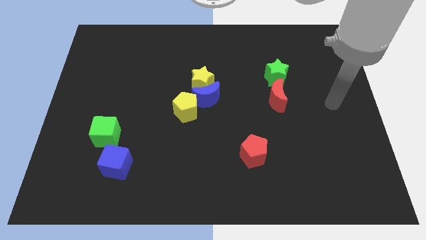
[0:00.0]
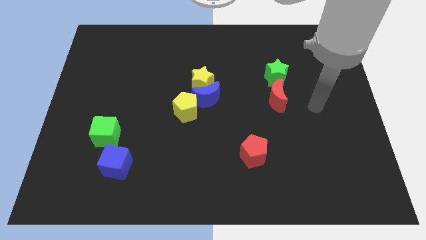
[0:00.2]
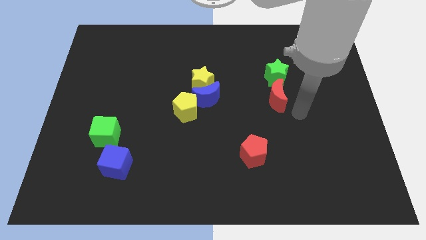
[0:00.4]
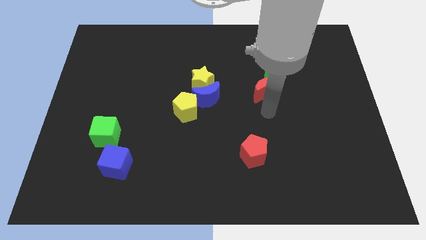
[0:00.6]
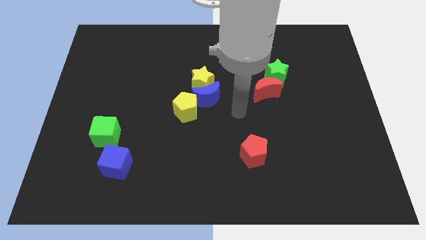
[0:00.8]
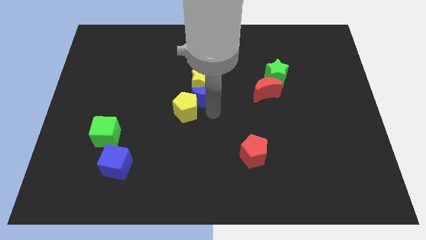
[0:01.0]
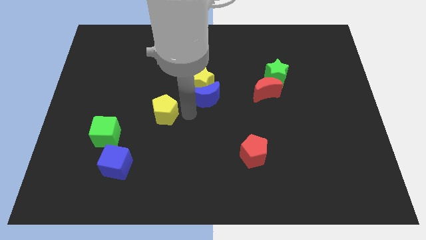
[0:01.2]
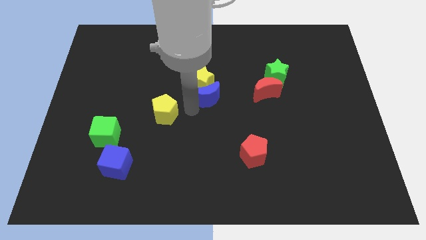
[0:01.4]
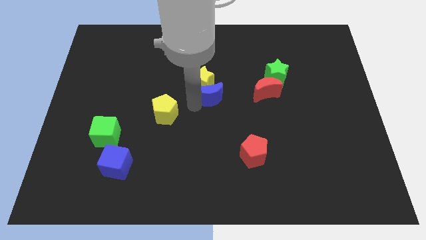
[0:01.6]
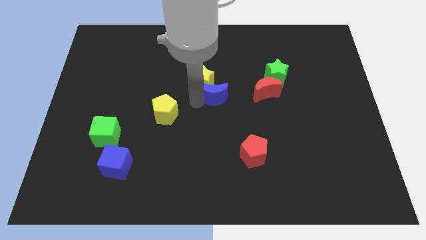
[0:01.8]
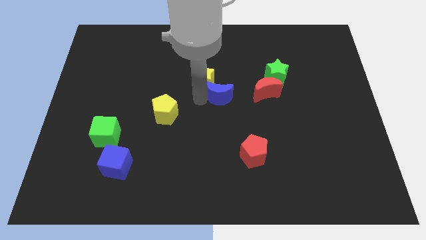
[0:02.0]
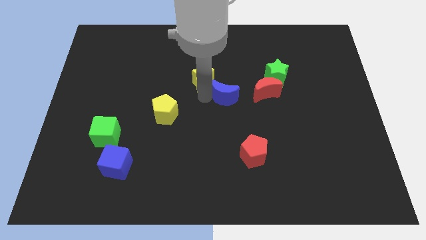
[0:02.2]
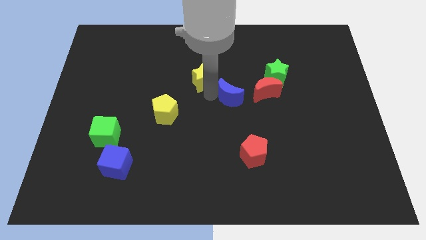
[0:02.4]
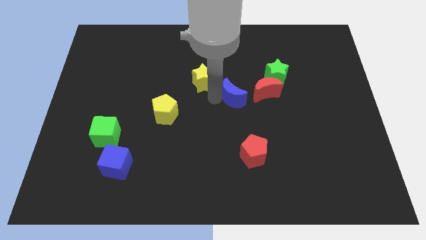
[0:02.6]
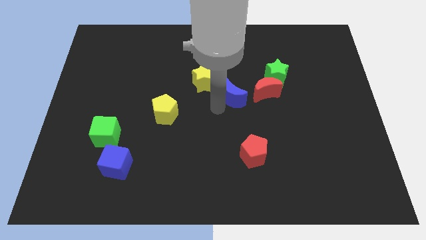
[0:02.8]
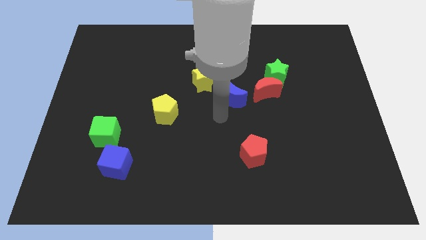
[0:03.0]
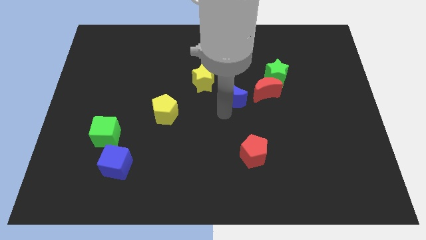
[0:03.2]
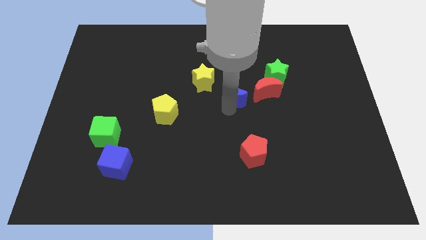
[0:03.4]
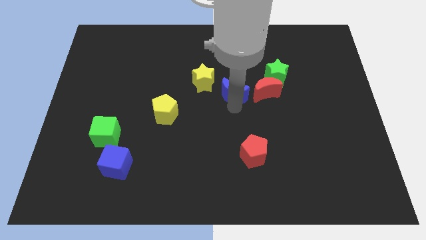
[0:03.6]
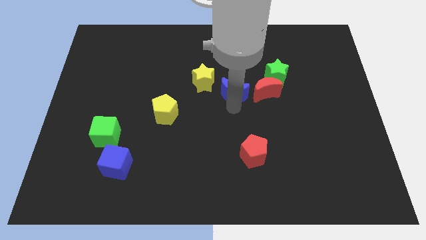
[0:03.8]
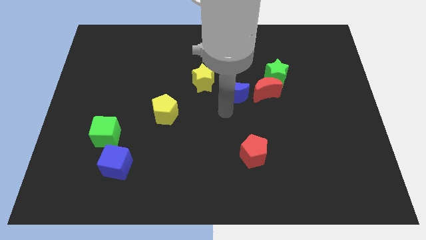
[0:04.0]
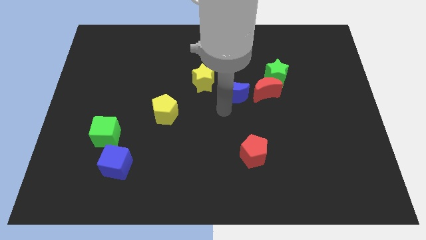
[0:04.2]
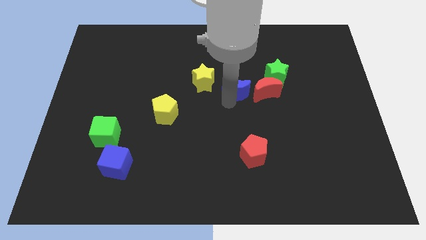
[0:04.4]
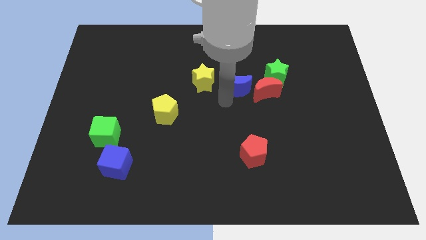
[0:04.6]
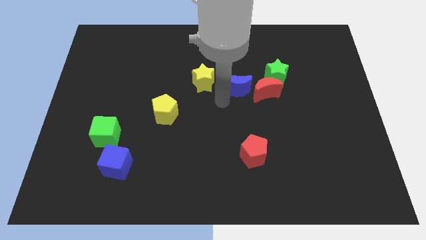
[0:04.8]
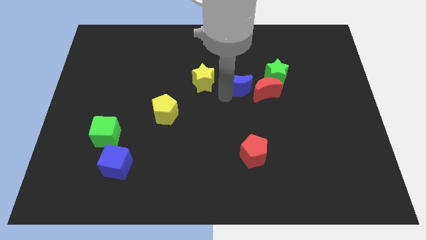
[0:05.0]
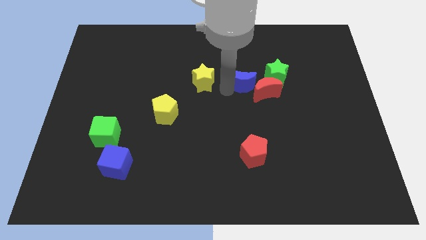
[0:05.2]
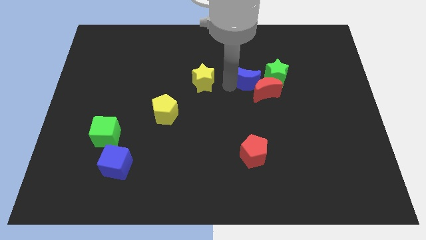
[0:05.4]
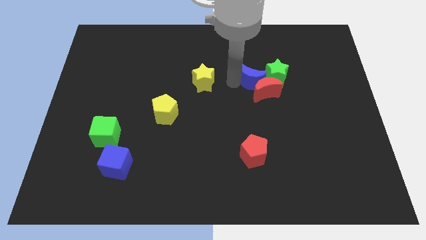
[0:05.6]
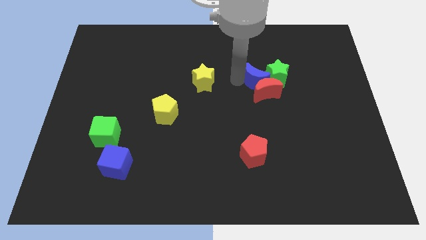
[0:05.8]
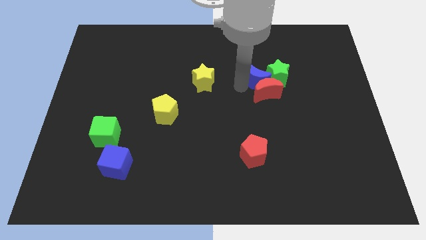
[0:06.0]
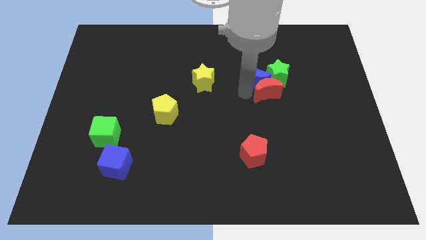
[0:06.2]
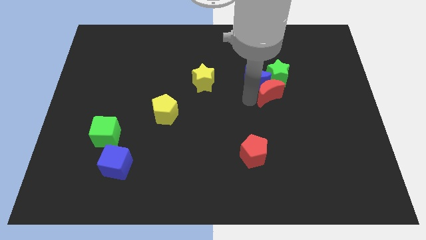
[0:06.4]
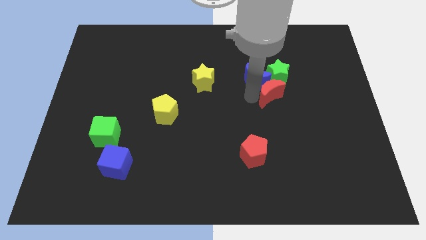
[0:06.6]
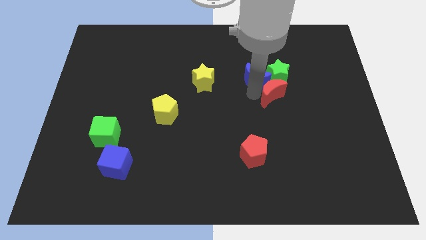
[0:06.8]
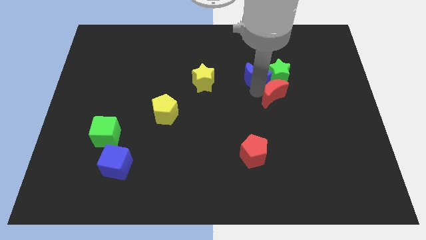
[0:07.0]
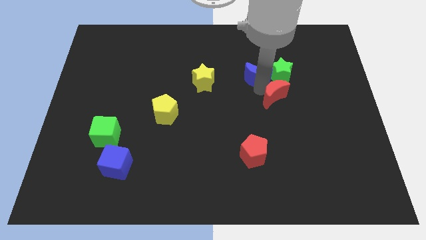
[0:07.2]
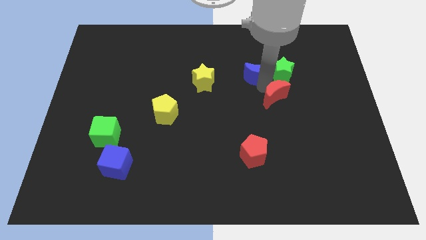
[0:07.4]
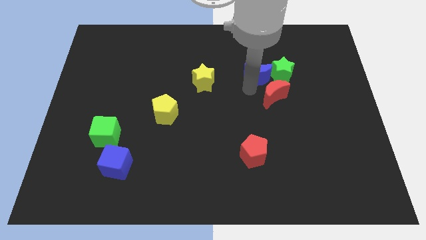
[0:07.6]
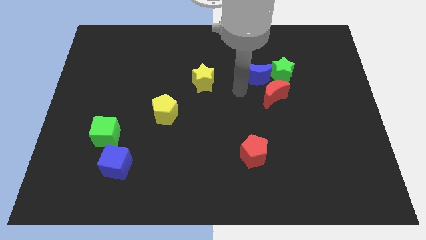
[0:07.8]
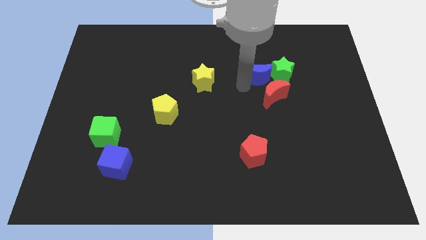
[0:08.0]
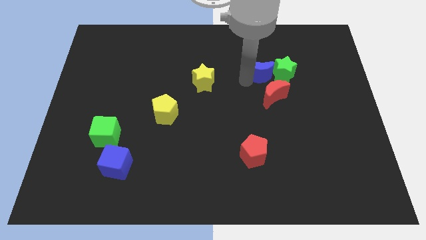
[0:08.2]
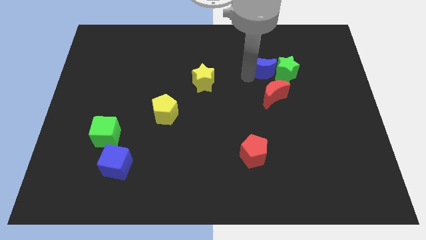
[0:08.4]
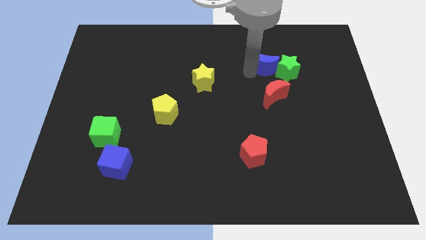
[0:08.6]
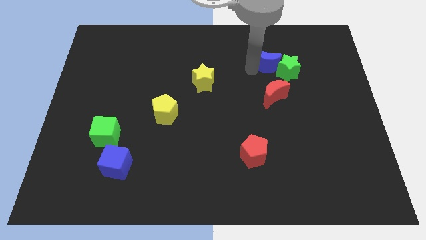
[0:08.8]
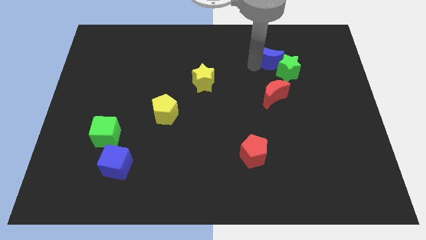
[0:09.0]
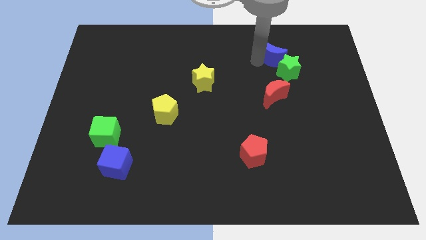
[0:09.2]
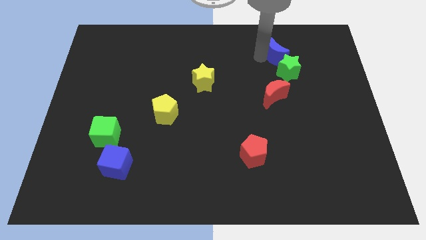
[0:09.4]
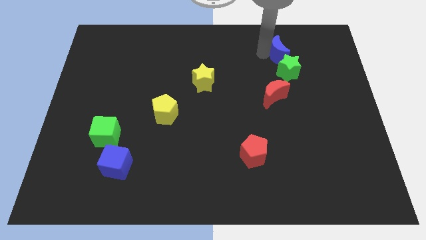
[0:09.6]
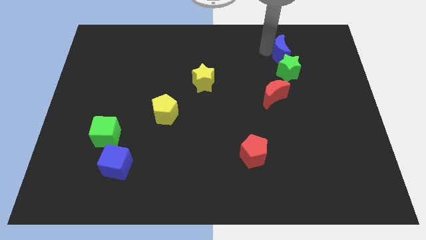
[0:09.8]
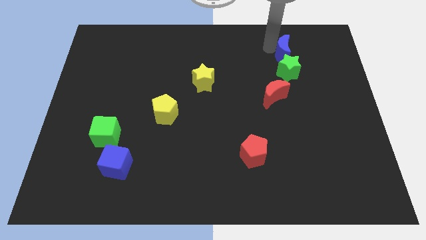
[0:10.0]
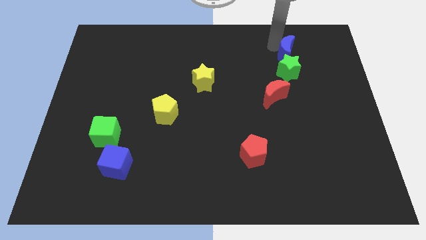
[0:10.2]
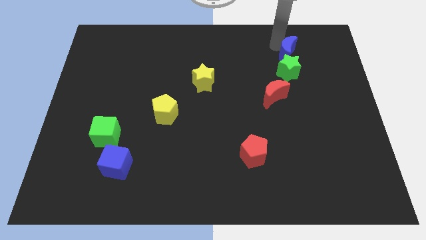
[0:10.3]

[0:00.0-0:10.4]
slide the blue moon to the top right side of the green star

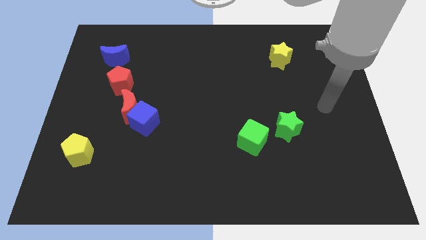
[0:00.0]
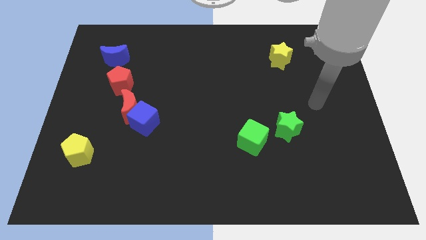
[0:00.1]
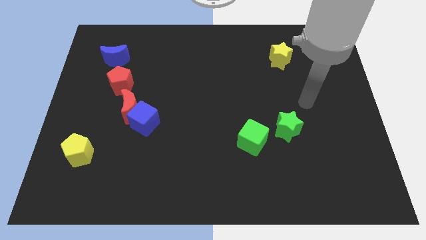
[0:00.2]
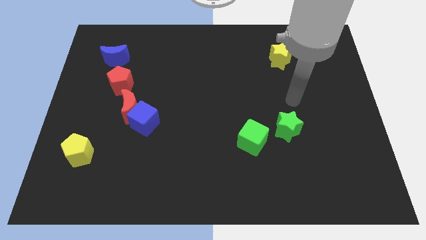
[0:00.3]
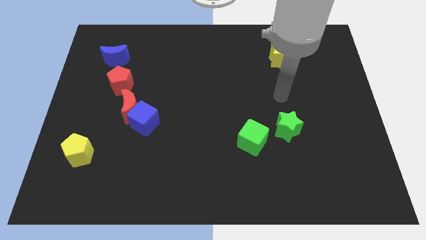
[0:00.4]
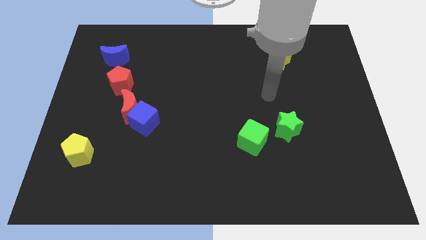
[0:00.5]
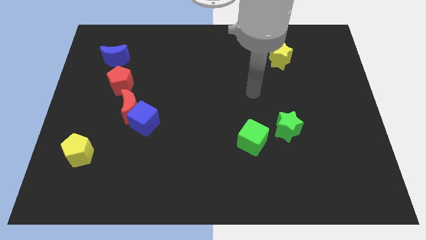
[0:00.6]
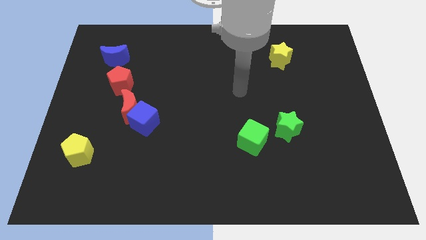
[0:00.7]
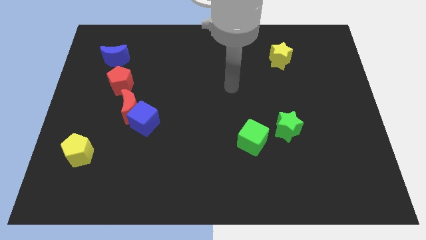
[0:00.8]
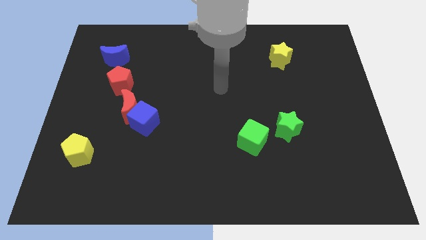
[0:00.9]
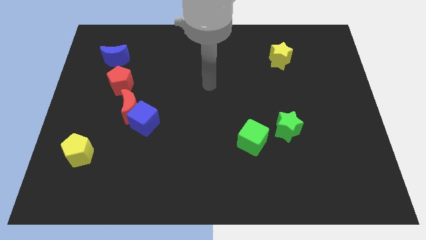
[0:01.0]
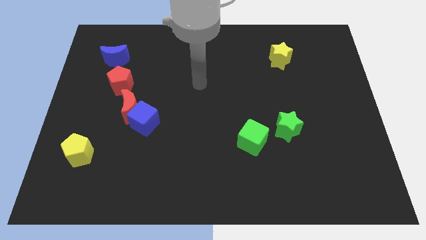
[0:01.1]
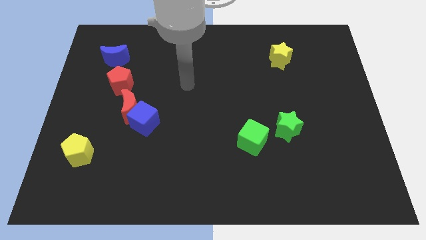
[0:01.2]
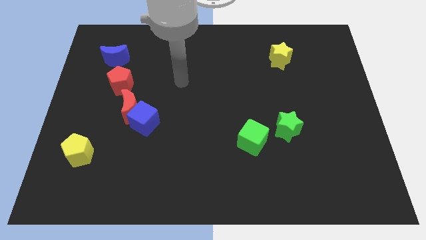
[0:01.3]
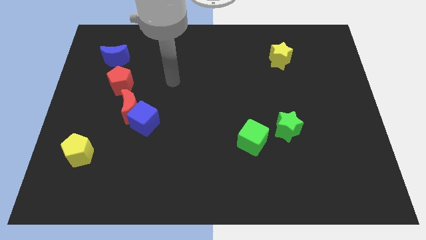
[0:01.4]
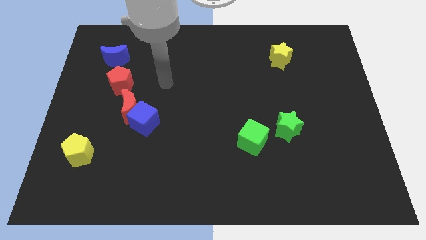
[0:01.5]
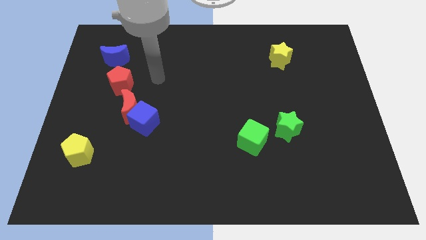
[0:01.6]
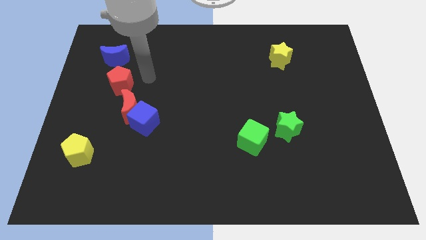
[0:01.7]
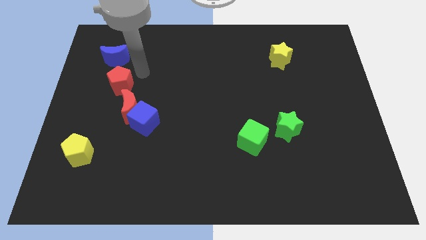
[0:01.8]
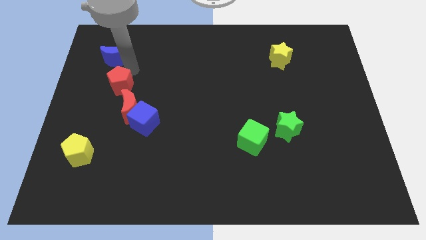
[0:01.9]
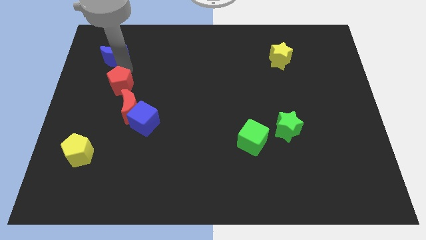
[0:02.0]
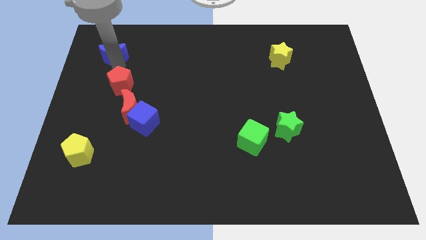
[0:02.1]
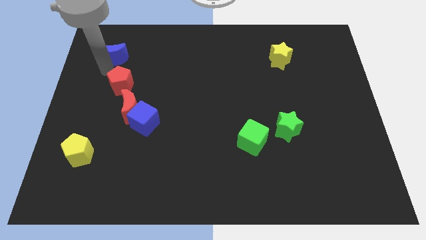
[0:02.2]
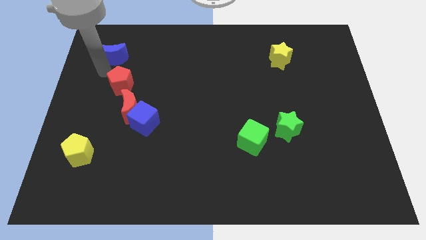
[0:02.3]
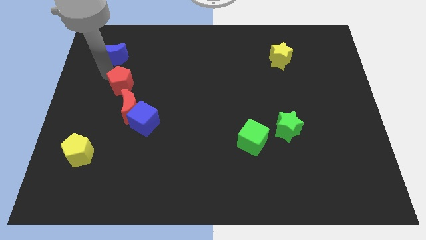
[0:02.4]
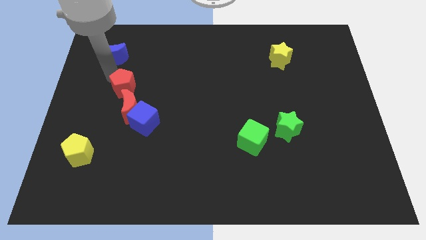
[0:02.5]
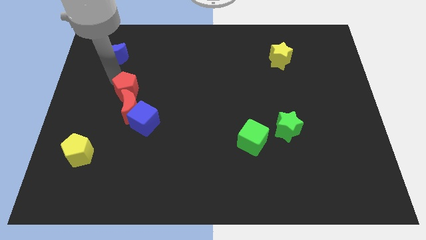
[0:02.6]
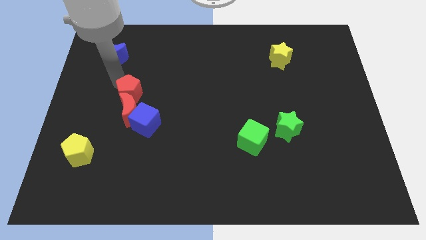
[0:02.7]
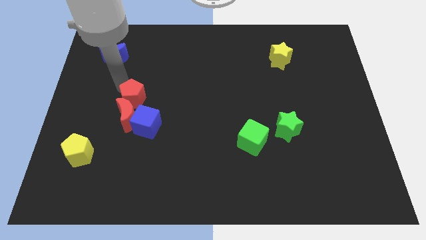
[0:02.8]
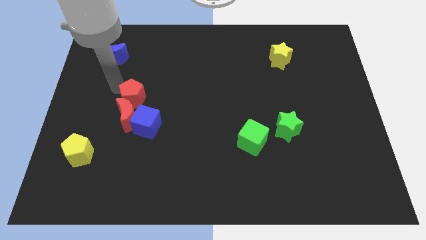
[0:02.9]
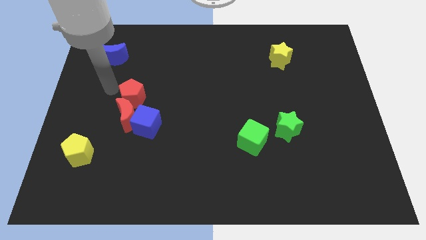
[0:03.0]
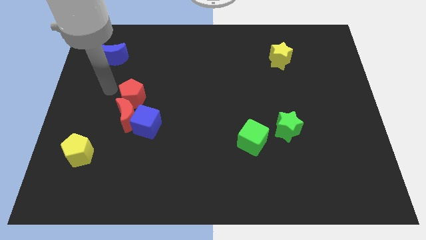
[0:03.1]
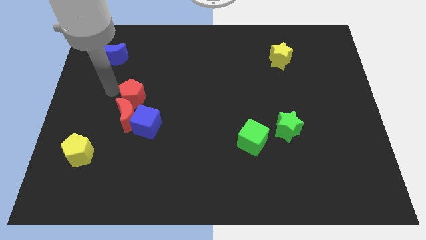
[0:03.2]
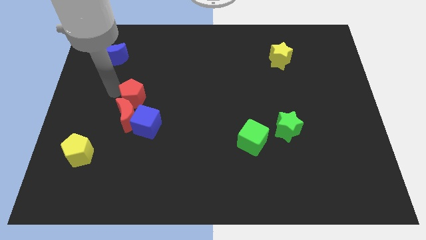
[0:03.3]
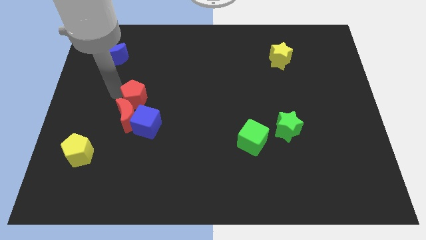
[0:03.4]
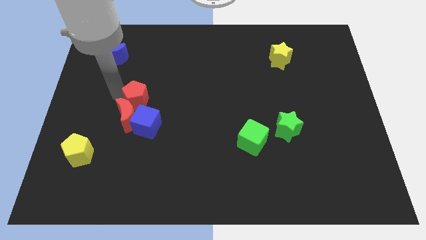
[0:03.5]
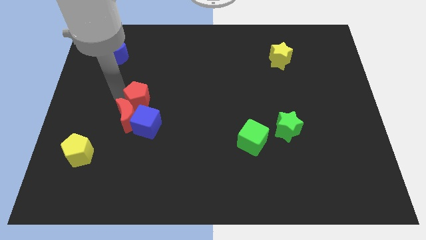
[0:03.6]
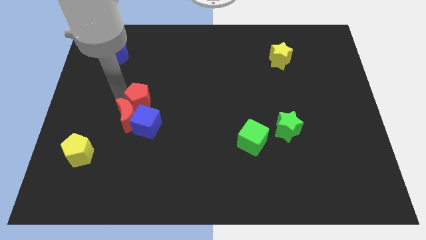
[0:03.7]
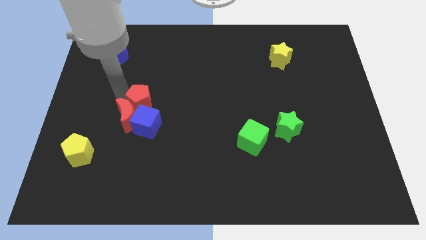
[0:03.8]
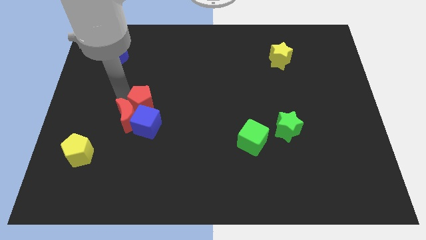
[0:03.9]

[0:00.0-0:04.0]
slide the red pentagon right of the red moon
